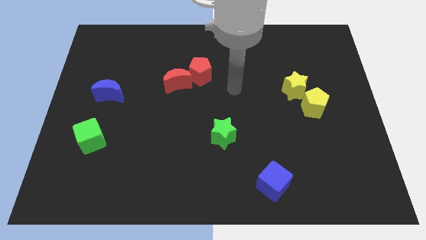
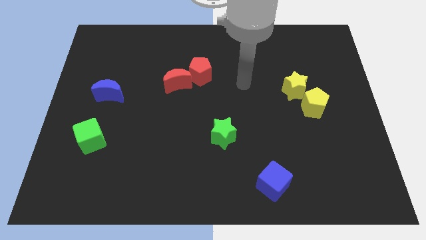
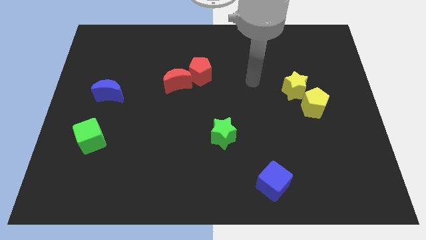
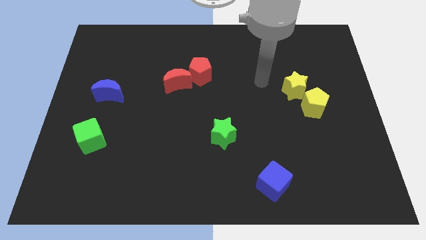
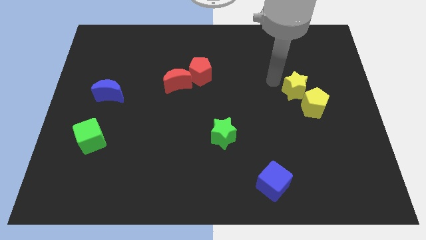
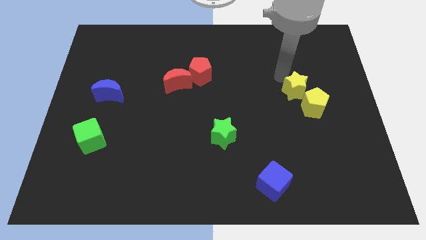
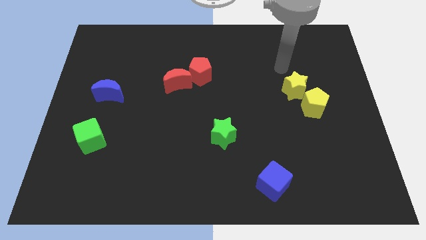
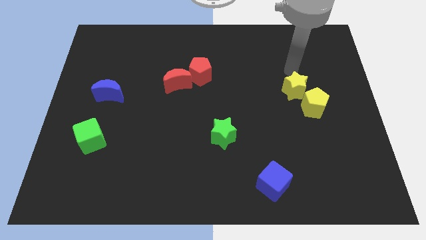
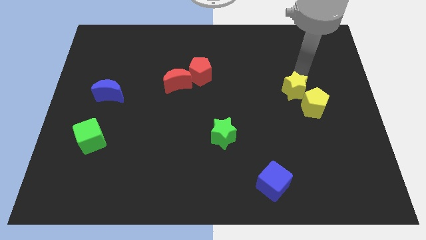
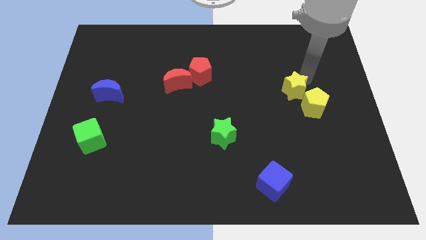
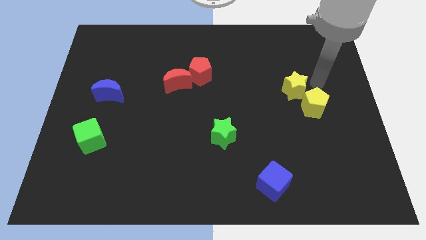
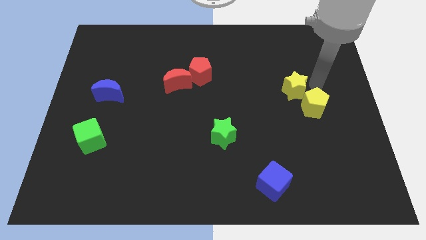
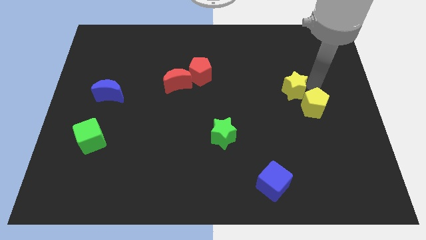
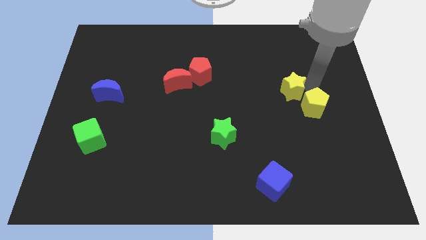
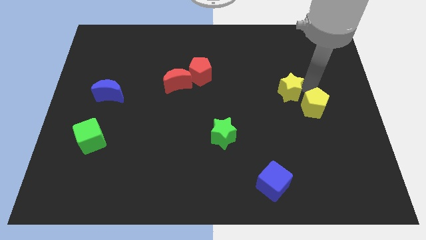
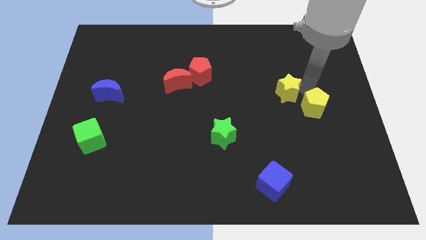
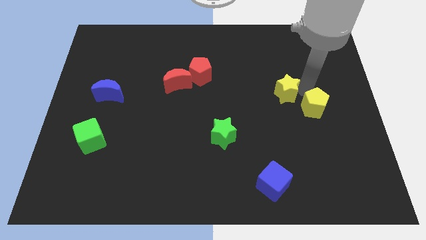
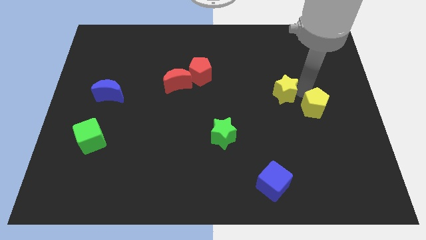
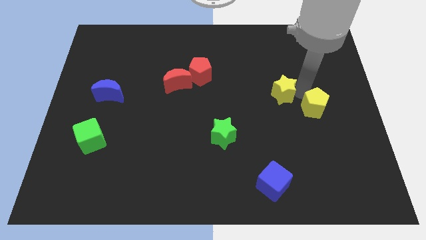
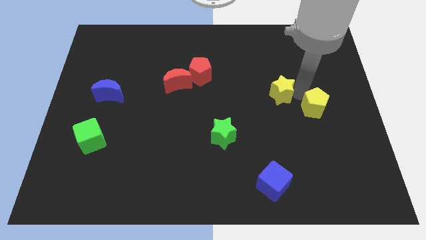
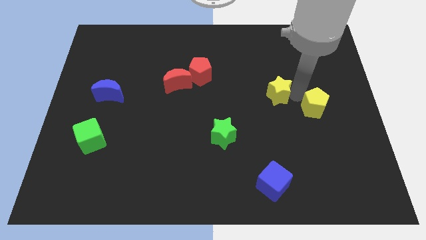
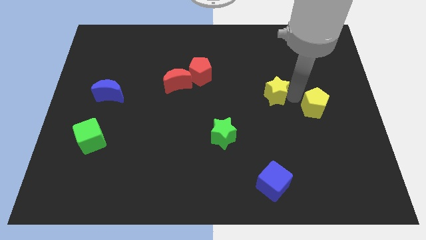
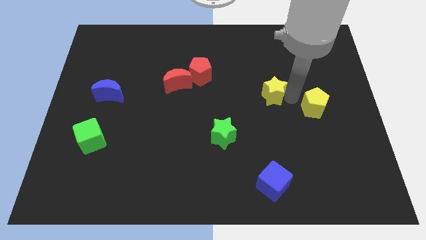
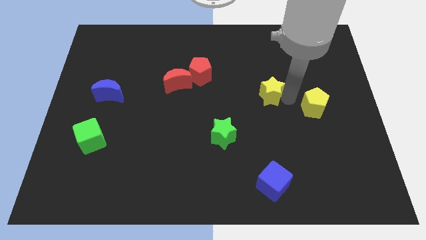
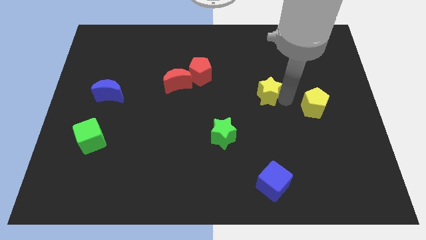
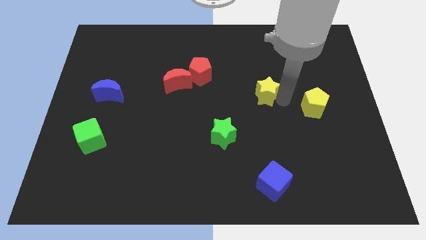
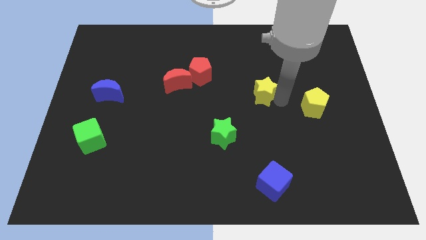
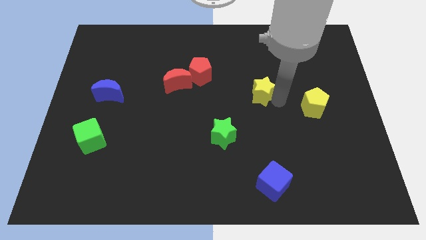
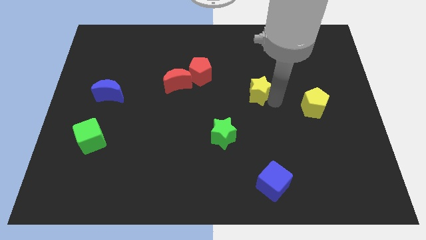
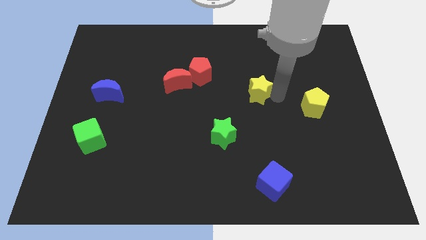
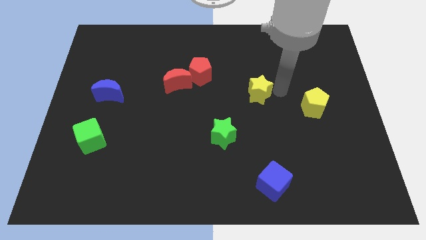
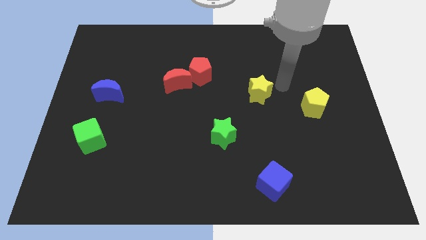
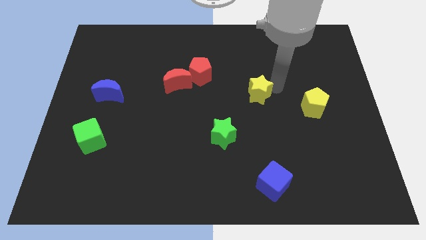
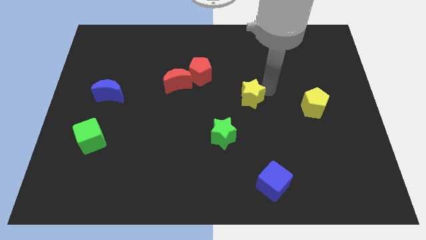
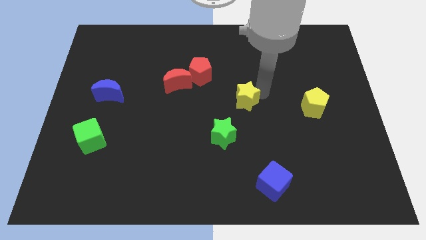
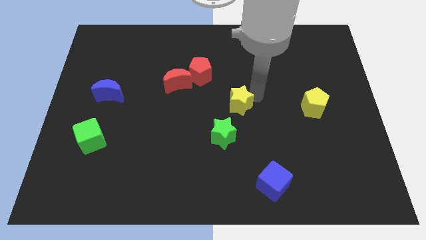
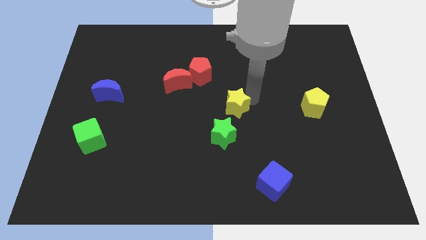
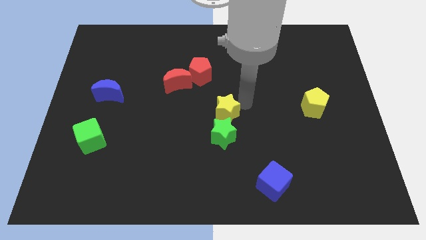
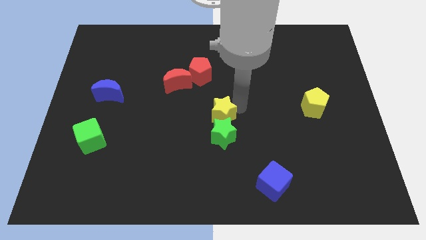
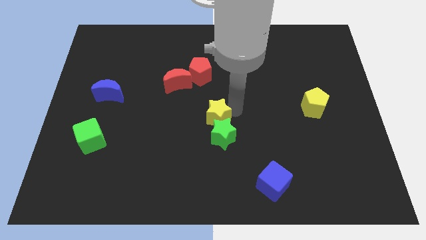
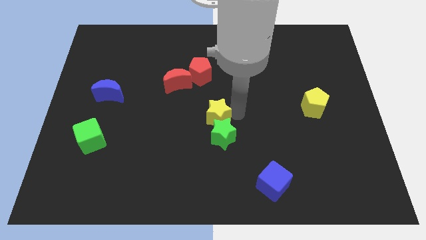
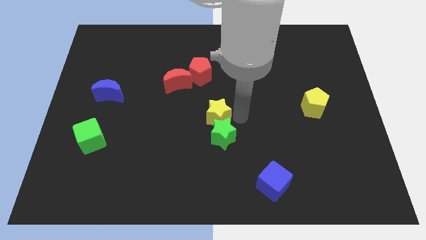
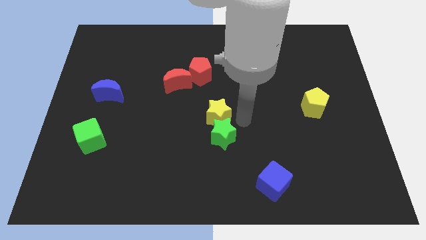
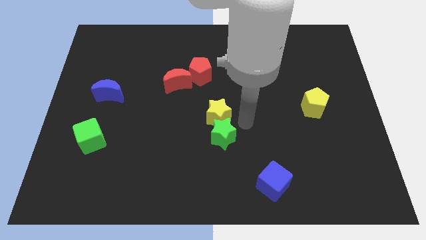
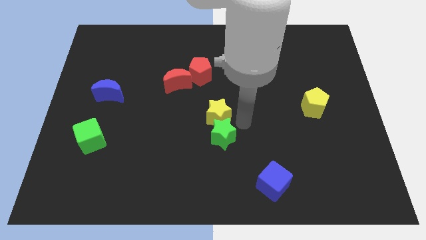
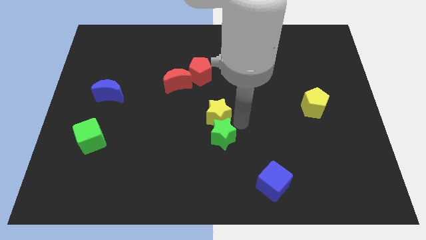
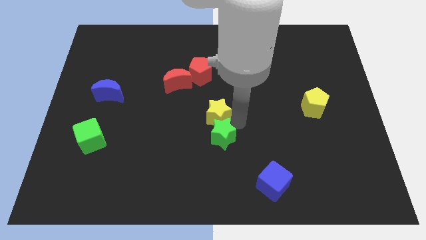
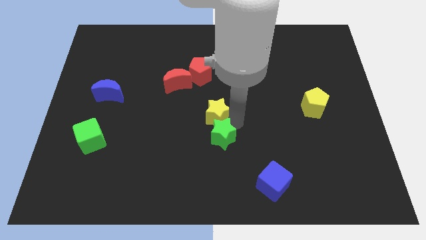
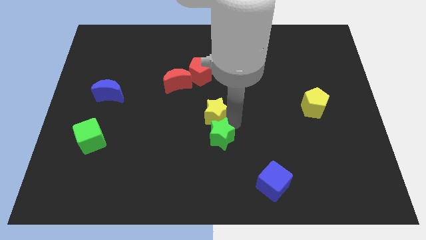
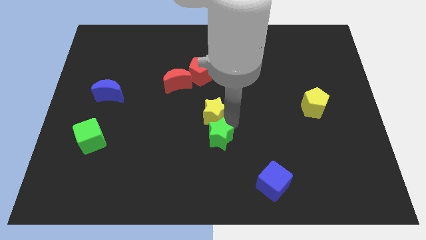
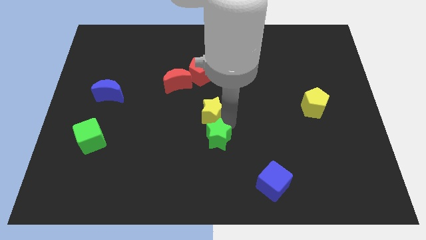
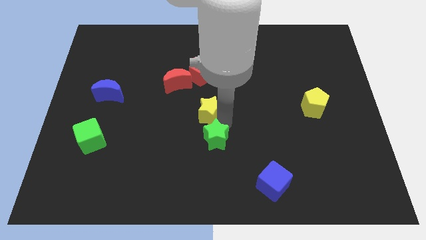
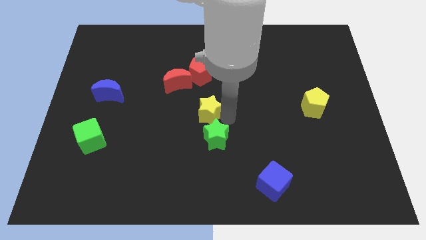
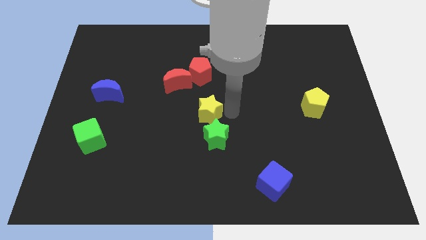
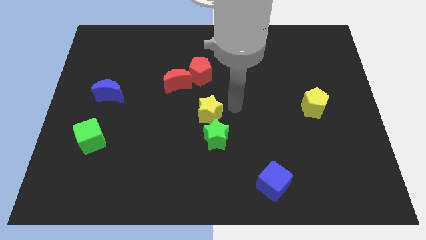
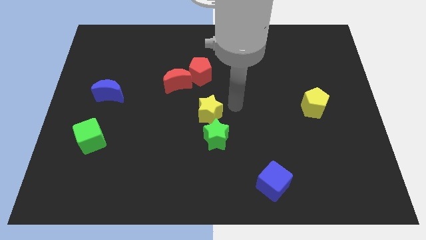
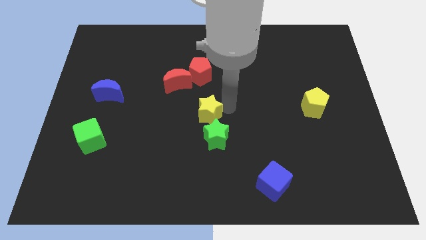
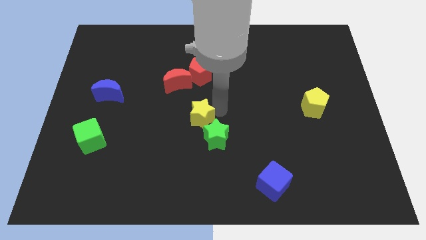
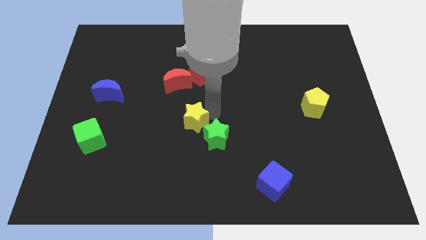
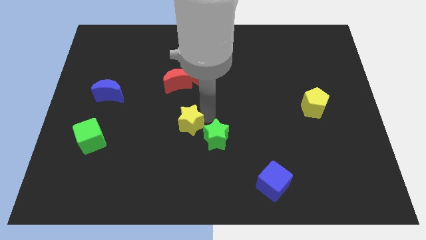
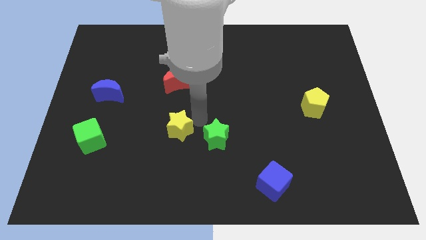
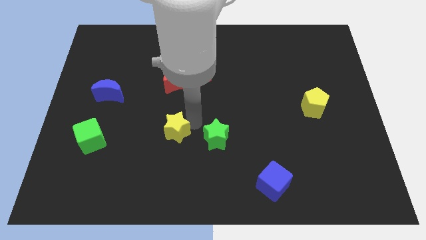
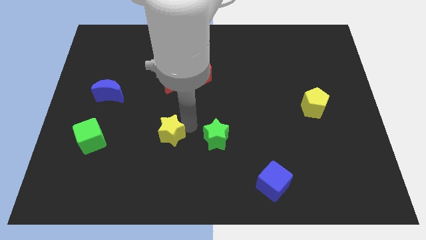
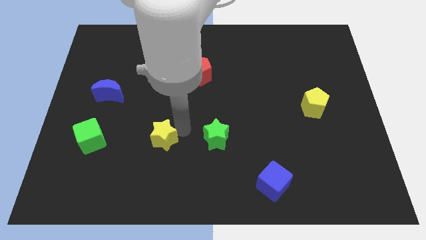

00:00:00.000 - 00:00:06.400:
put the yellow star right of the green cube
